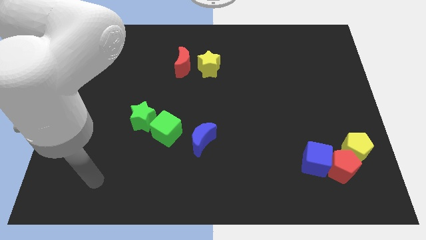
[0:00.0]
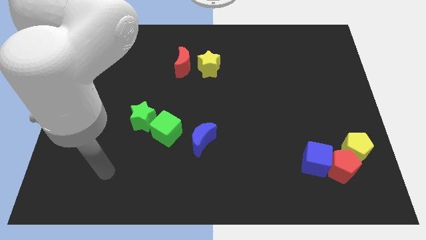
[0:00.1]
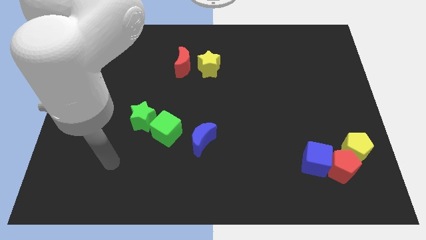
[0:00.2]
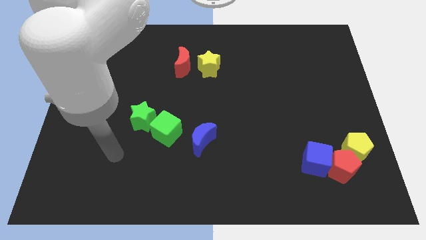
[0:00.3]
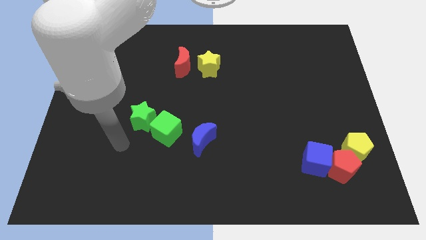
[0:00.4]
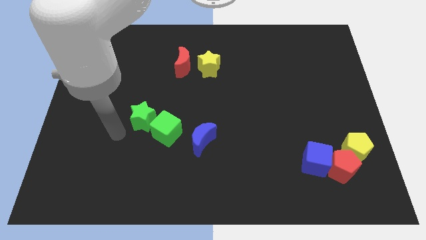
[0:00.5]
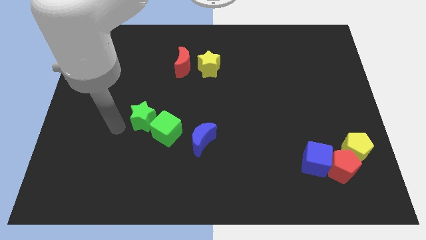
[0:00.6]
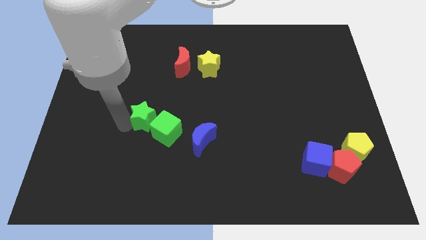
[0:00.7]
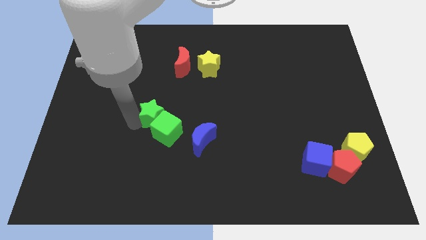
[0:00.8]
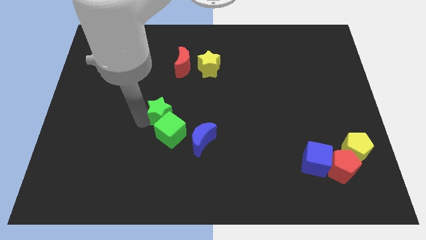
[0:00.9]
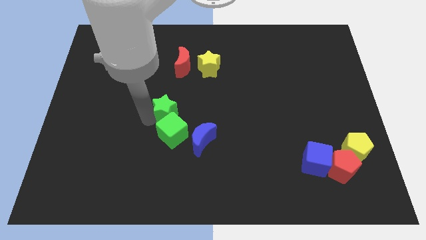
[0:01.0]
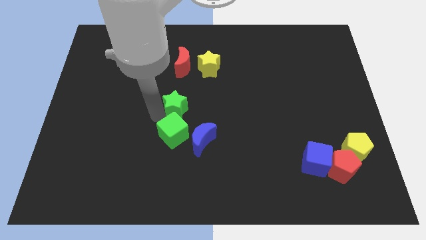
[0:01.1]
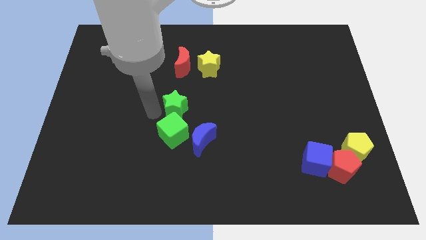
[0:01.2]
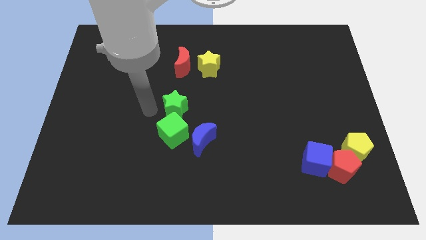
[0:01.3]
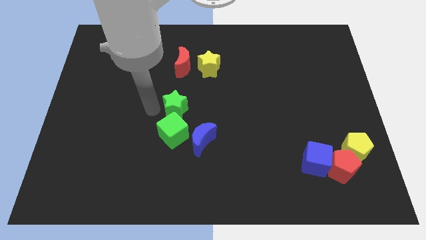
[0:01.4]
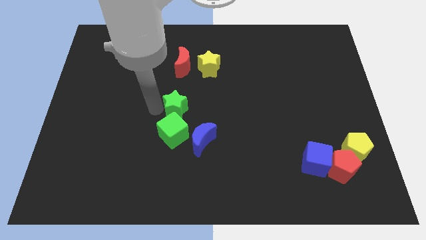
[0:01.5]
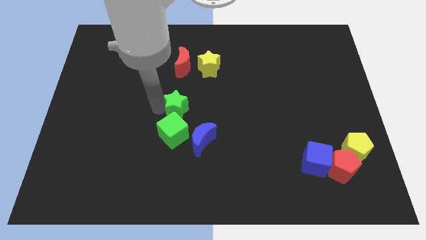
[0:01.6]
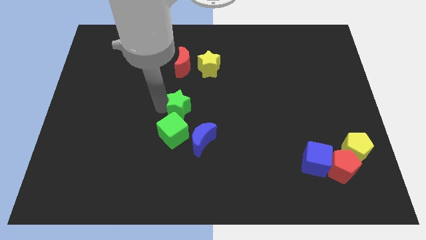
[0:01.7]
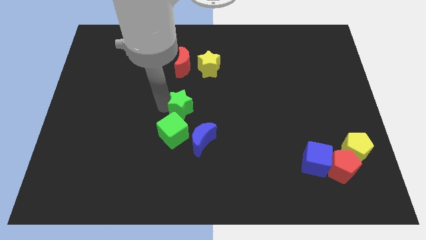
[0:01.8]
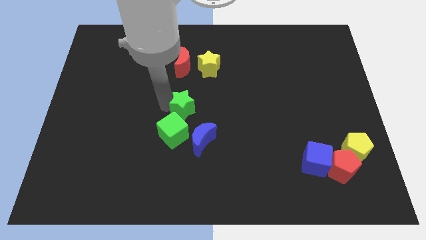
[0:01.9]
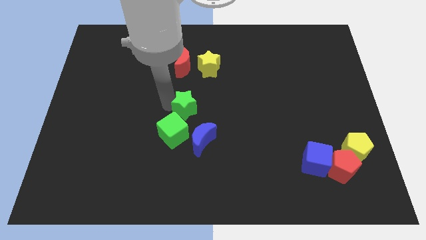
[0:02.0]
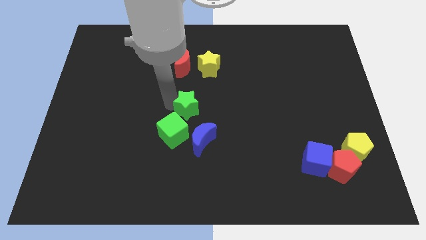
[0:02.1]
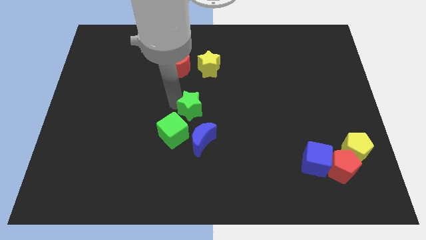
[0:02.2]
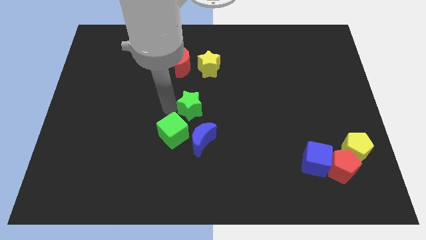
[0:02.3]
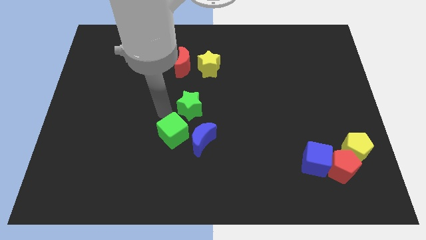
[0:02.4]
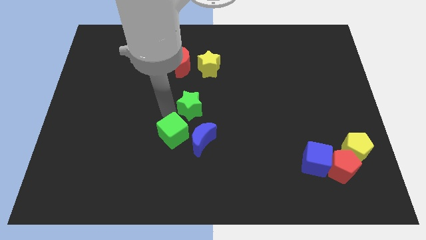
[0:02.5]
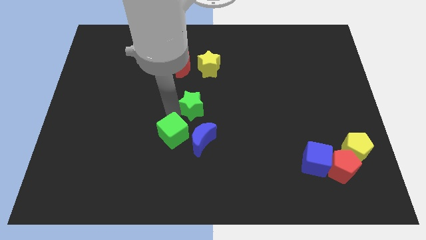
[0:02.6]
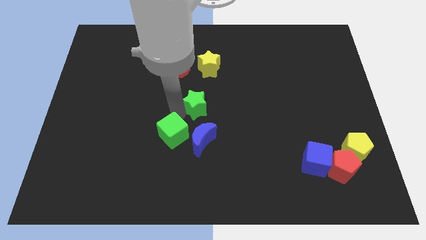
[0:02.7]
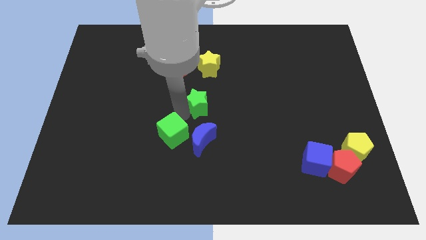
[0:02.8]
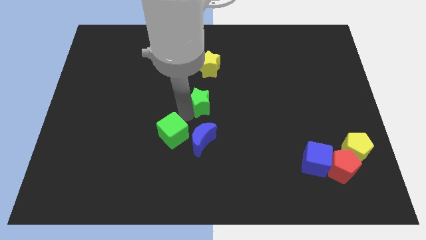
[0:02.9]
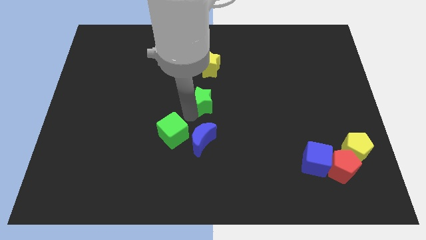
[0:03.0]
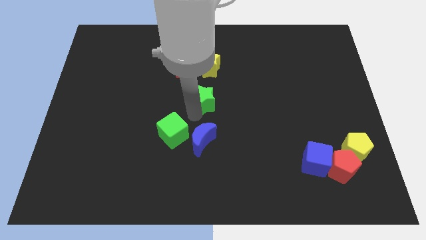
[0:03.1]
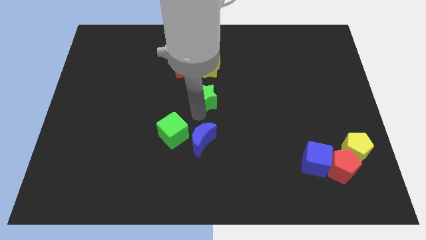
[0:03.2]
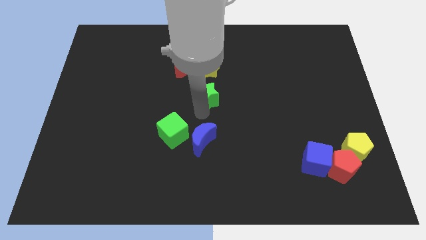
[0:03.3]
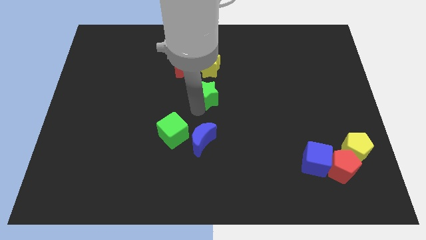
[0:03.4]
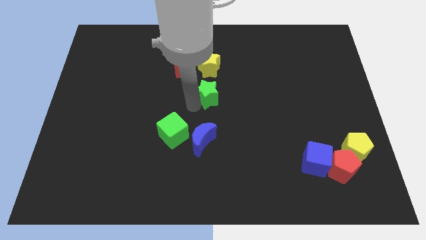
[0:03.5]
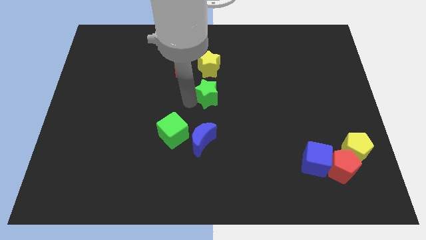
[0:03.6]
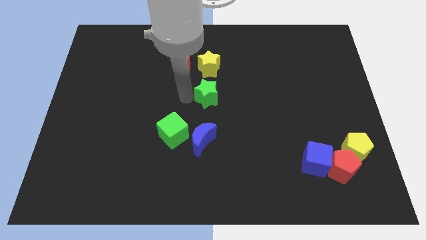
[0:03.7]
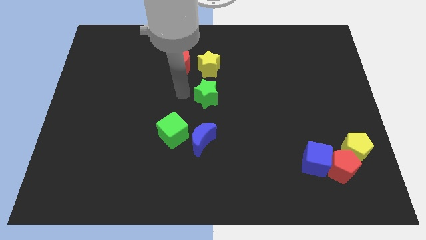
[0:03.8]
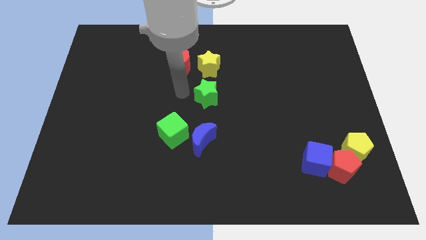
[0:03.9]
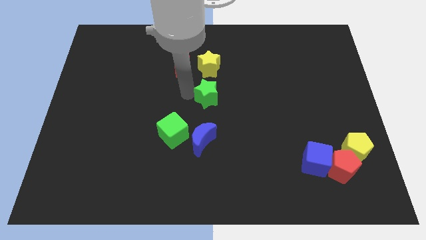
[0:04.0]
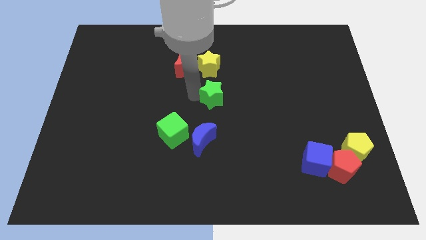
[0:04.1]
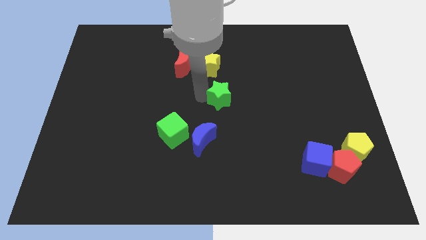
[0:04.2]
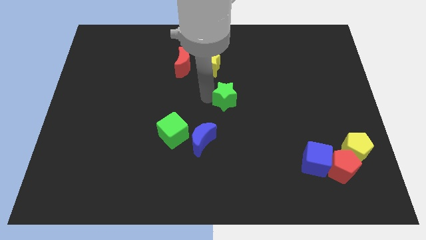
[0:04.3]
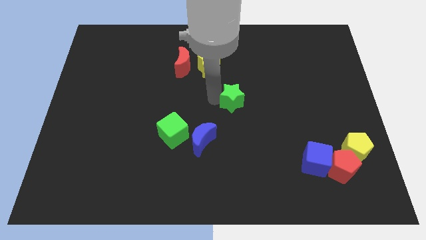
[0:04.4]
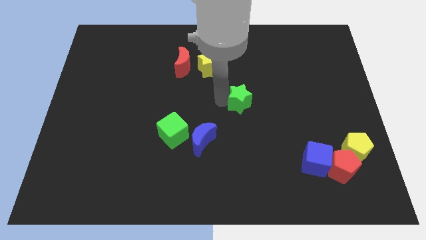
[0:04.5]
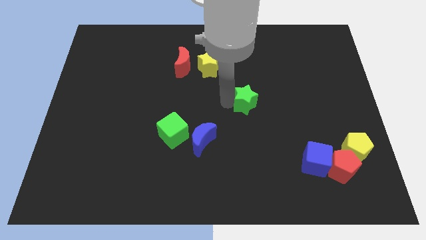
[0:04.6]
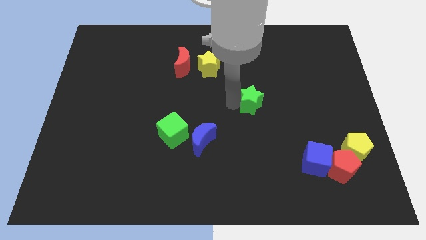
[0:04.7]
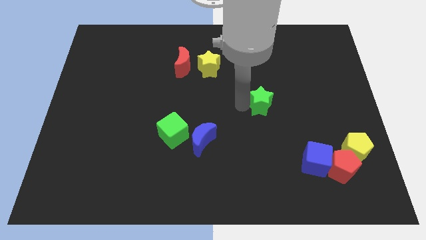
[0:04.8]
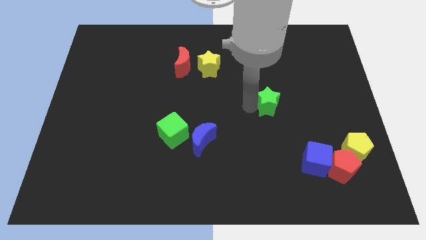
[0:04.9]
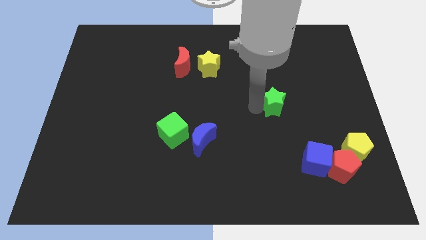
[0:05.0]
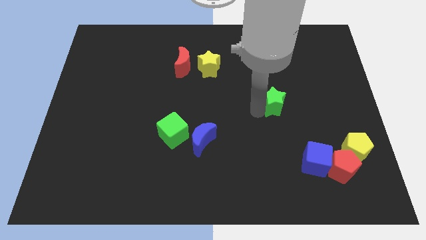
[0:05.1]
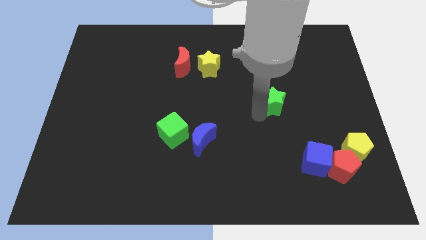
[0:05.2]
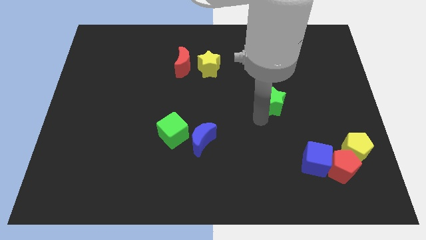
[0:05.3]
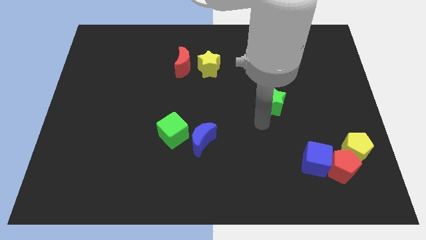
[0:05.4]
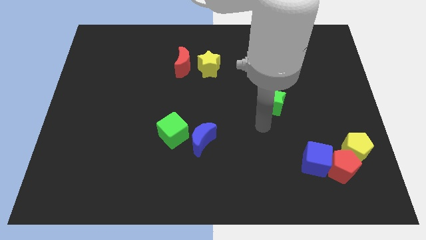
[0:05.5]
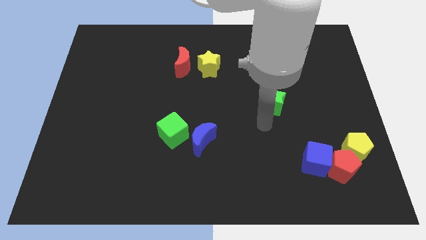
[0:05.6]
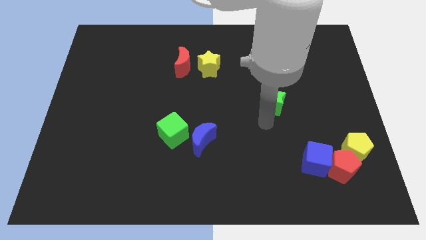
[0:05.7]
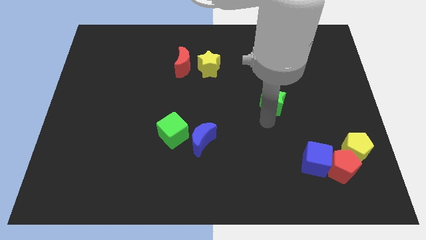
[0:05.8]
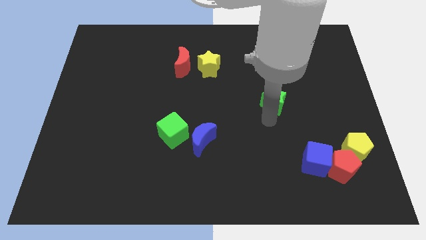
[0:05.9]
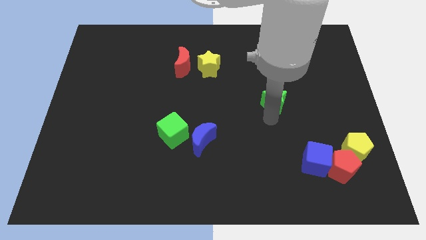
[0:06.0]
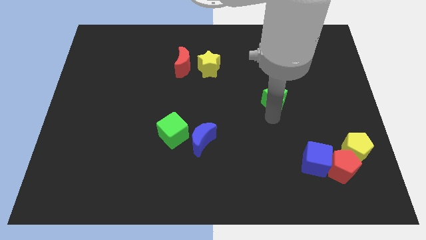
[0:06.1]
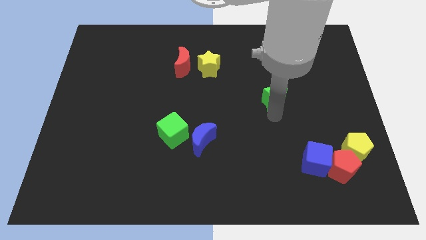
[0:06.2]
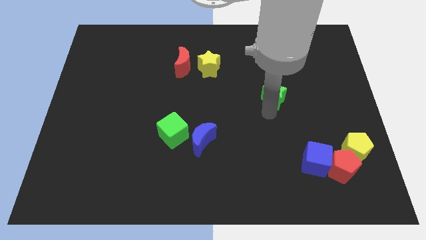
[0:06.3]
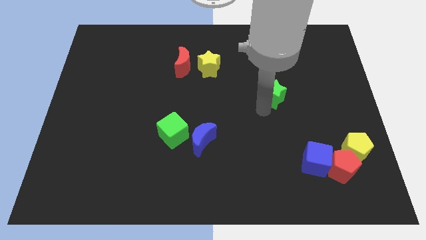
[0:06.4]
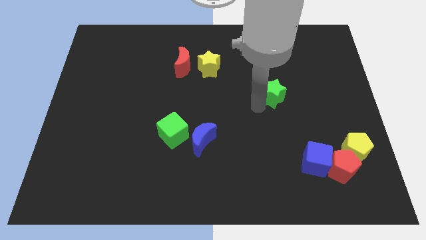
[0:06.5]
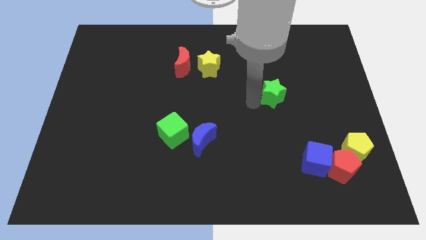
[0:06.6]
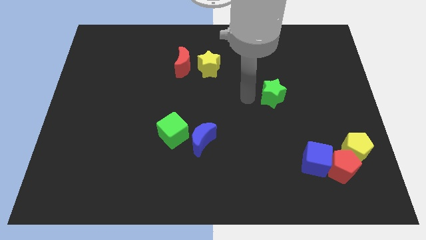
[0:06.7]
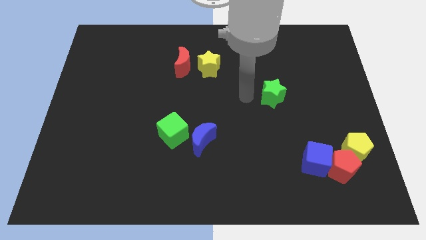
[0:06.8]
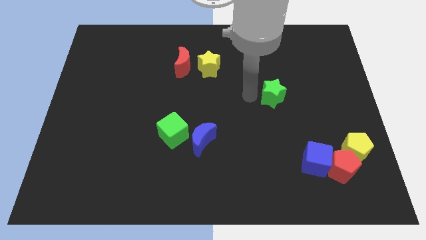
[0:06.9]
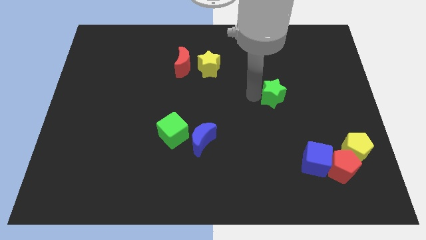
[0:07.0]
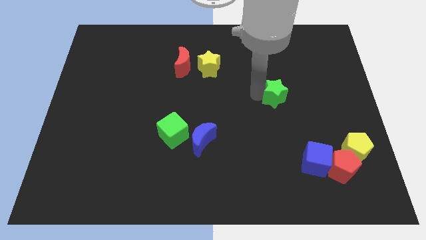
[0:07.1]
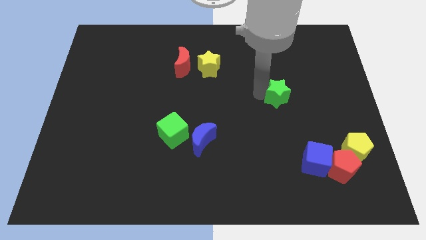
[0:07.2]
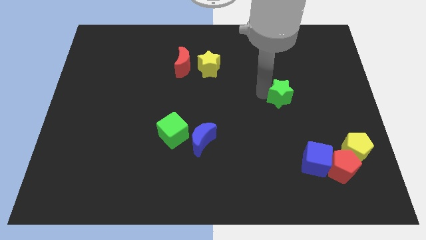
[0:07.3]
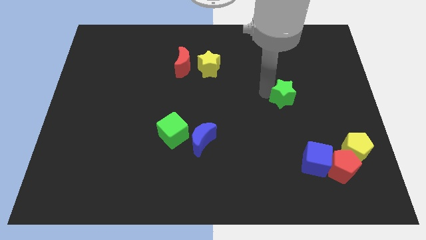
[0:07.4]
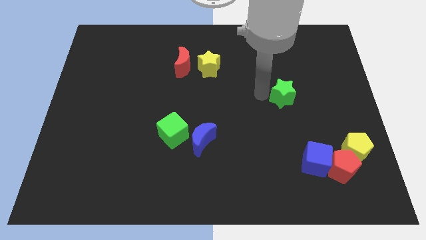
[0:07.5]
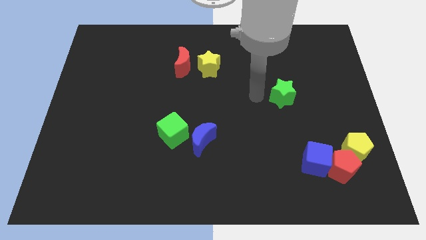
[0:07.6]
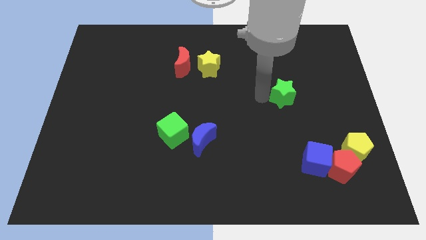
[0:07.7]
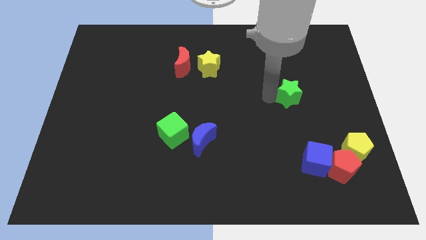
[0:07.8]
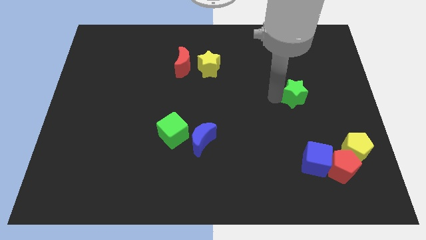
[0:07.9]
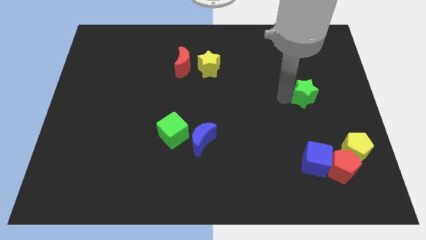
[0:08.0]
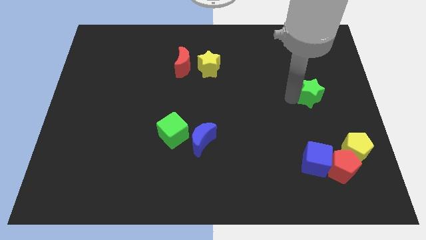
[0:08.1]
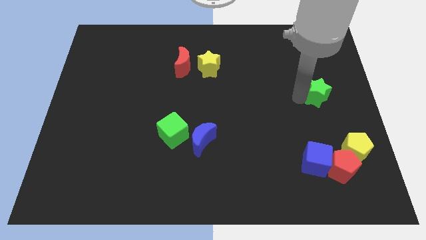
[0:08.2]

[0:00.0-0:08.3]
push the green star to the right side of the board
